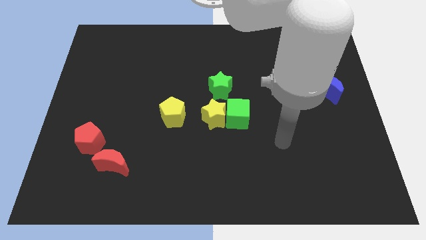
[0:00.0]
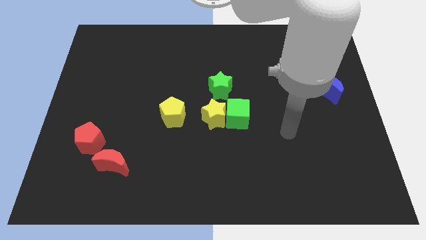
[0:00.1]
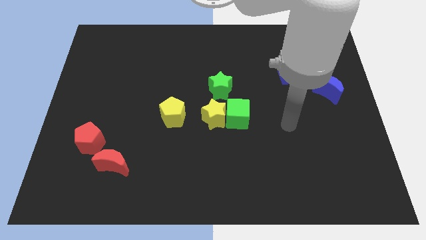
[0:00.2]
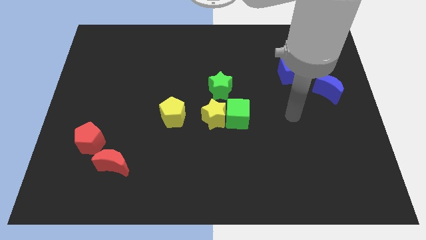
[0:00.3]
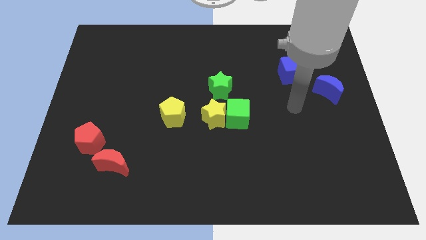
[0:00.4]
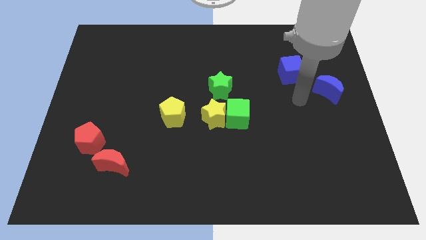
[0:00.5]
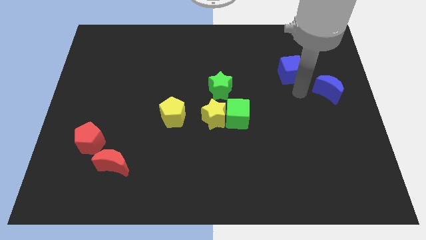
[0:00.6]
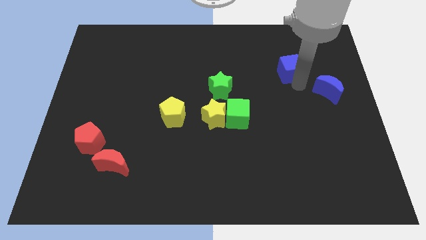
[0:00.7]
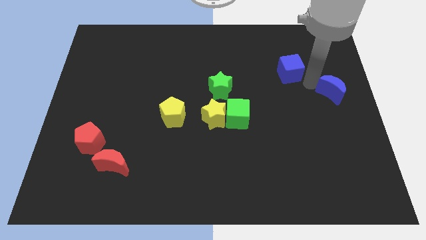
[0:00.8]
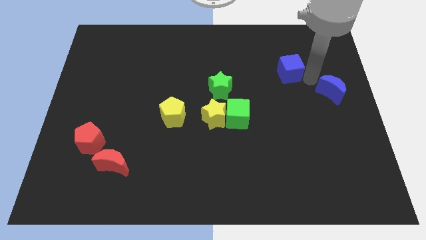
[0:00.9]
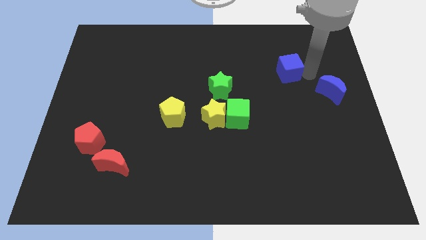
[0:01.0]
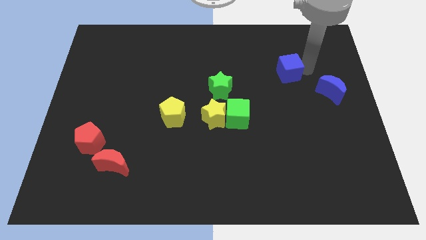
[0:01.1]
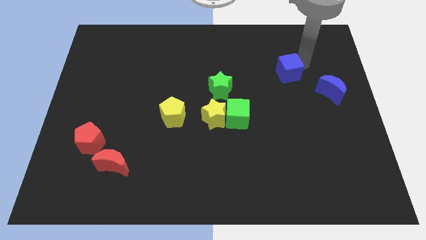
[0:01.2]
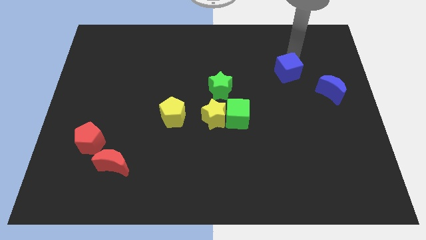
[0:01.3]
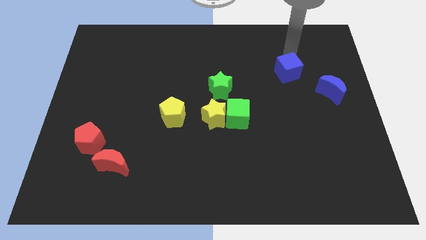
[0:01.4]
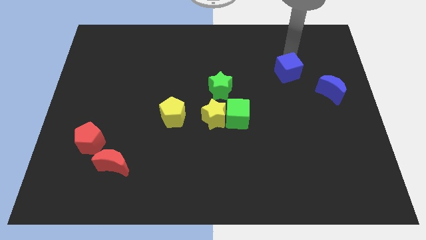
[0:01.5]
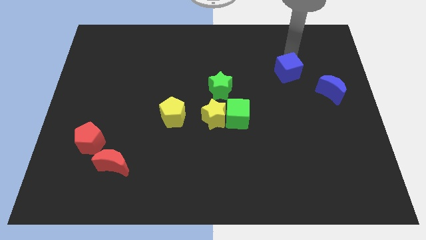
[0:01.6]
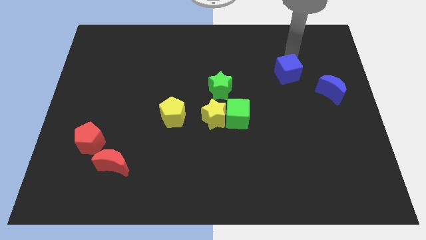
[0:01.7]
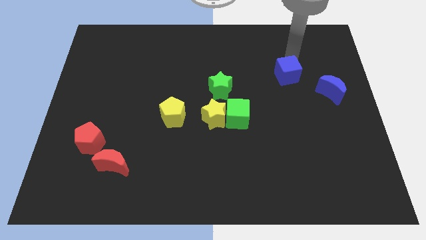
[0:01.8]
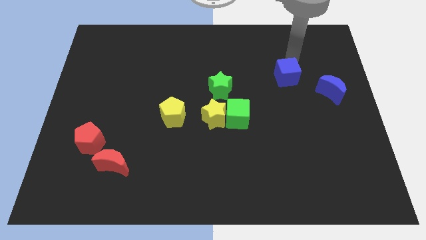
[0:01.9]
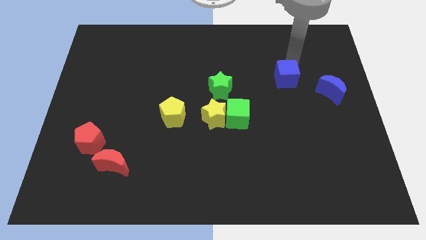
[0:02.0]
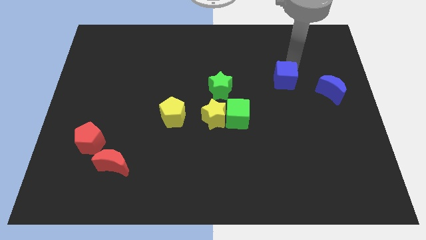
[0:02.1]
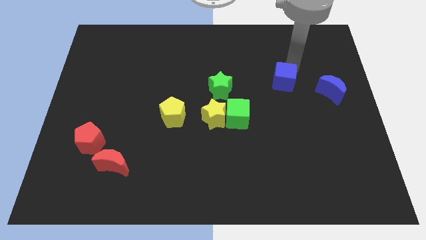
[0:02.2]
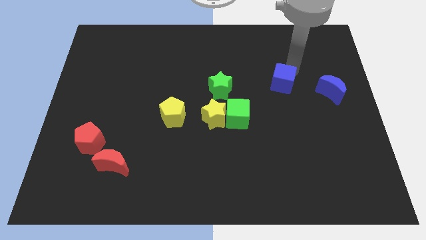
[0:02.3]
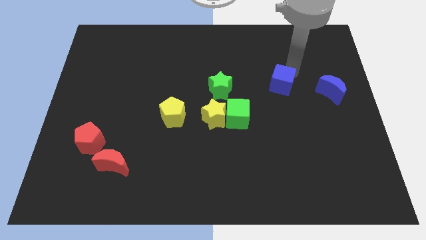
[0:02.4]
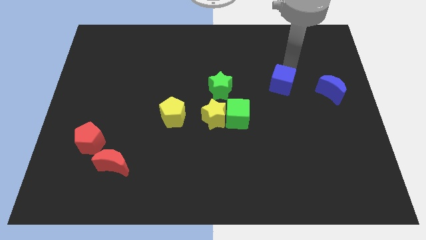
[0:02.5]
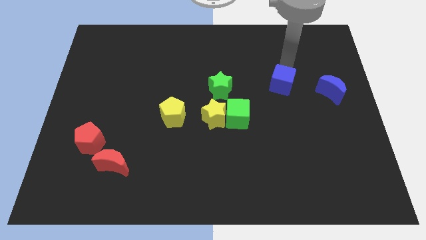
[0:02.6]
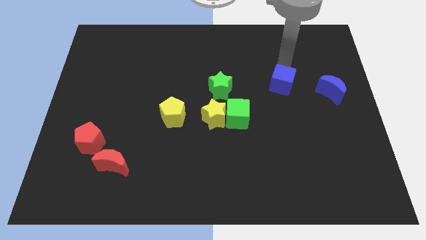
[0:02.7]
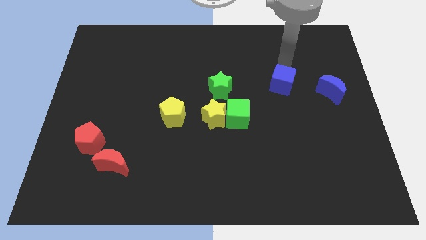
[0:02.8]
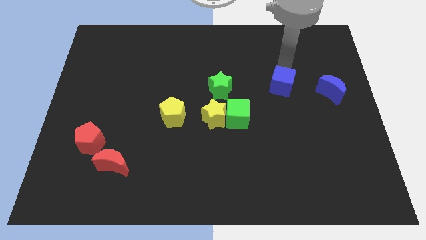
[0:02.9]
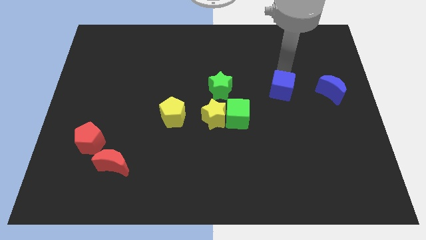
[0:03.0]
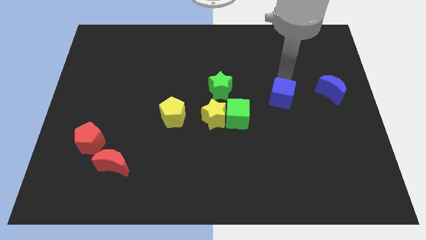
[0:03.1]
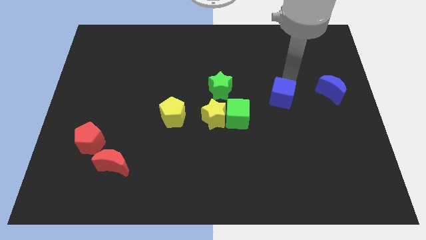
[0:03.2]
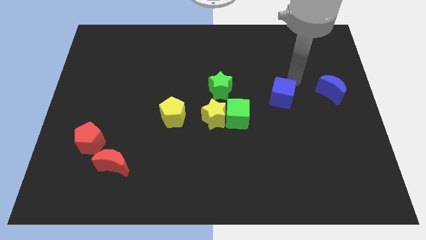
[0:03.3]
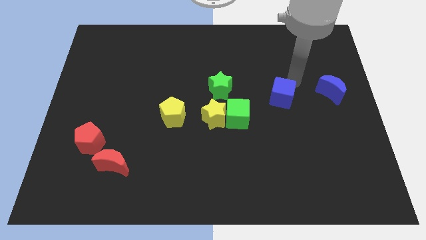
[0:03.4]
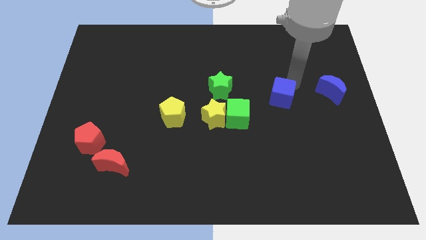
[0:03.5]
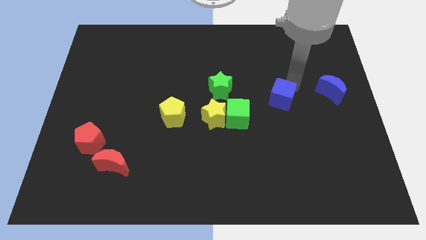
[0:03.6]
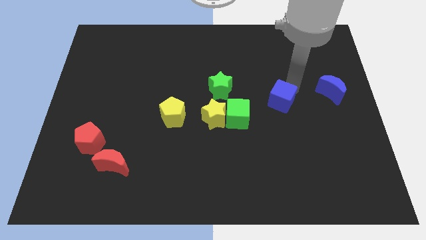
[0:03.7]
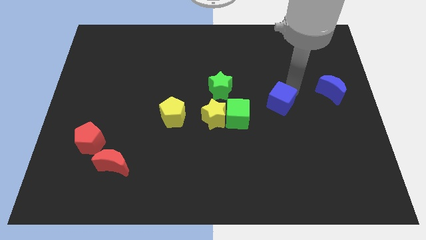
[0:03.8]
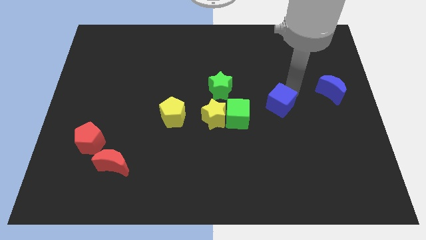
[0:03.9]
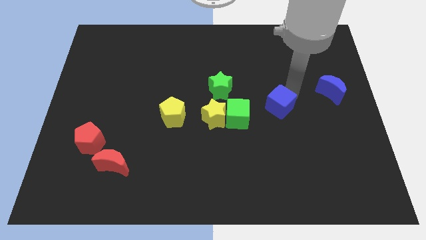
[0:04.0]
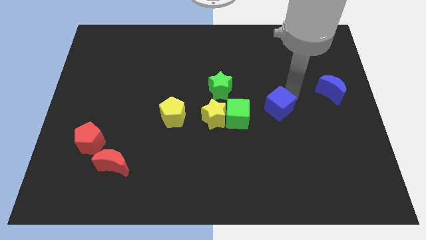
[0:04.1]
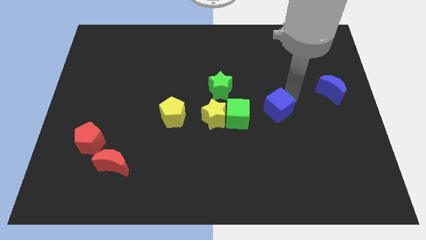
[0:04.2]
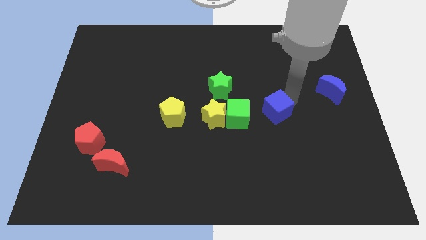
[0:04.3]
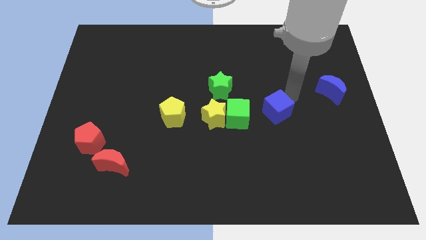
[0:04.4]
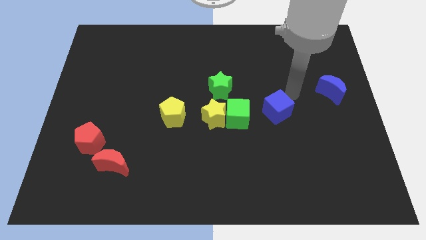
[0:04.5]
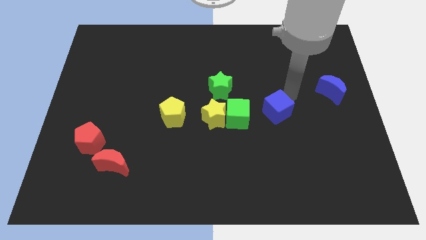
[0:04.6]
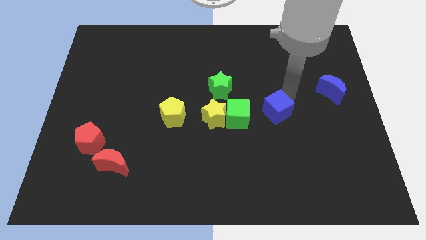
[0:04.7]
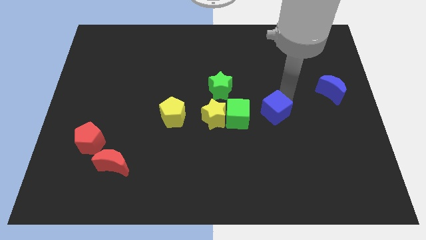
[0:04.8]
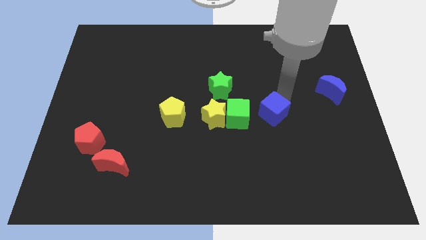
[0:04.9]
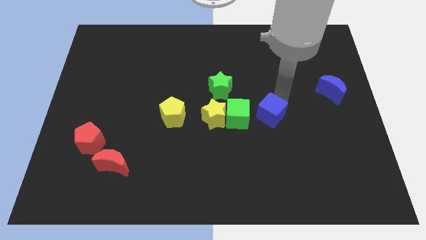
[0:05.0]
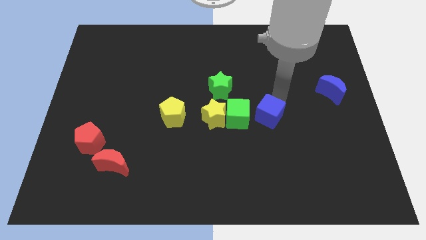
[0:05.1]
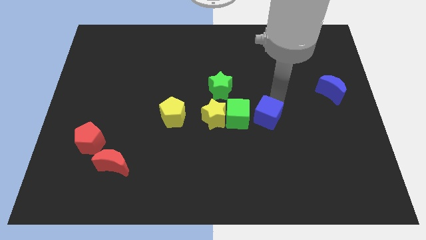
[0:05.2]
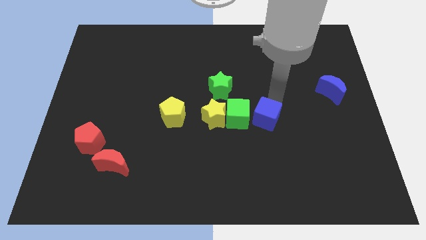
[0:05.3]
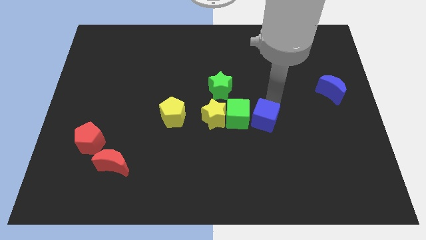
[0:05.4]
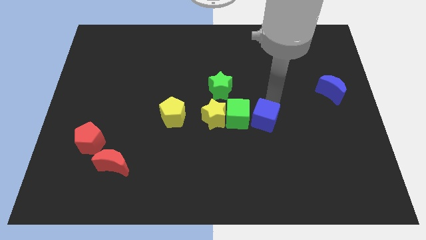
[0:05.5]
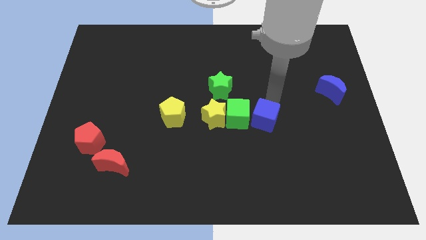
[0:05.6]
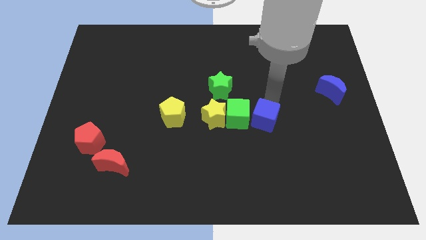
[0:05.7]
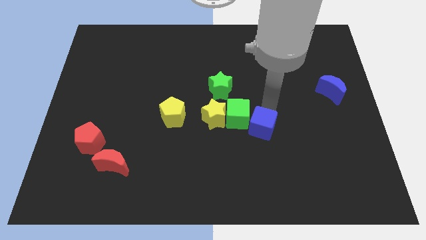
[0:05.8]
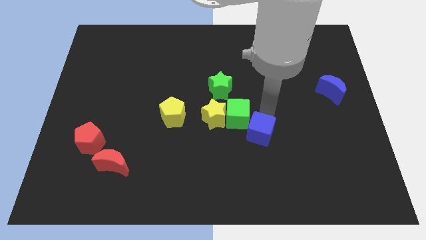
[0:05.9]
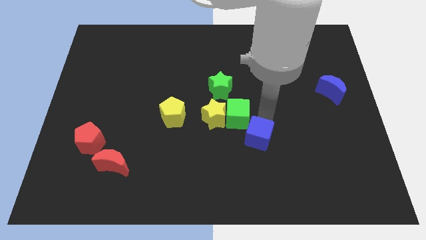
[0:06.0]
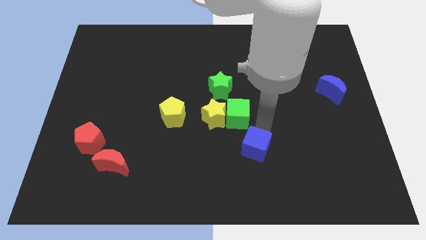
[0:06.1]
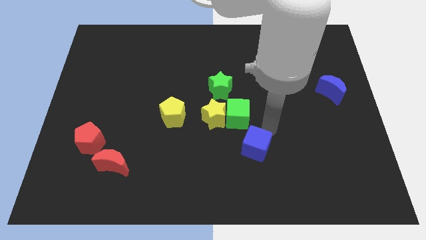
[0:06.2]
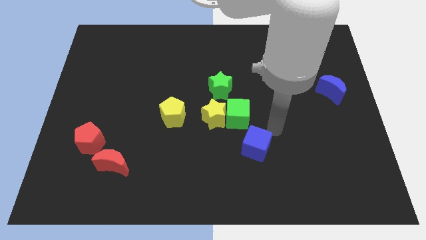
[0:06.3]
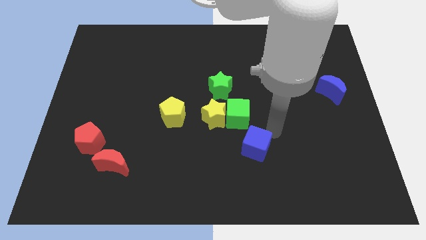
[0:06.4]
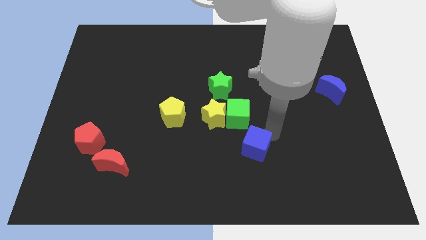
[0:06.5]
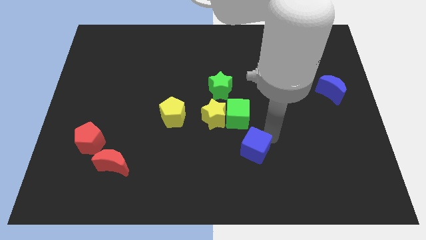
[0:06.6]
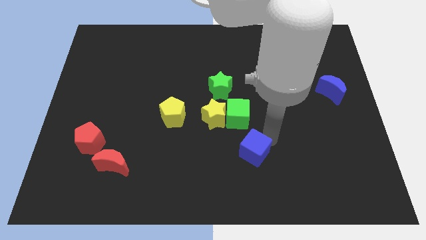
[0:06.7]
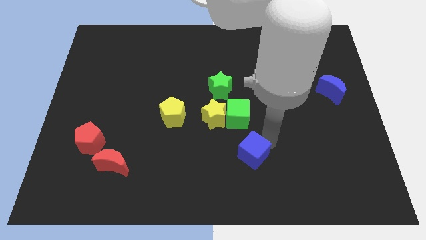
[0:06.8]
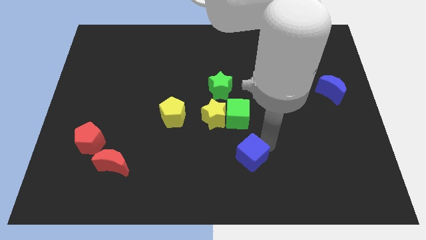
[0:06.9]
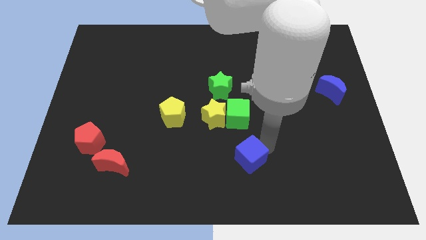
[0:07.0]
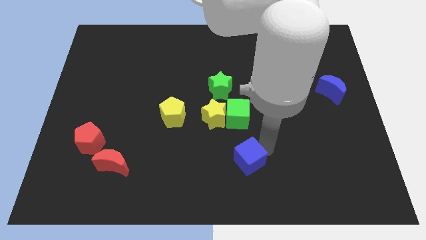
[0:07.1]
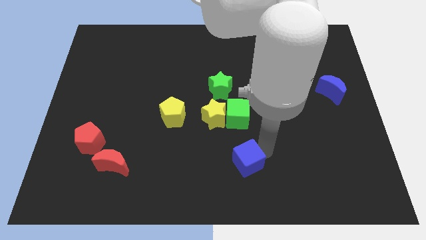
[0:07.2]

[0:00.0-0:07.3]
put the blue cube to the bottom
